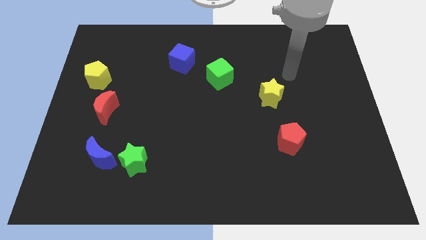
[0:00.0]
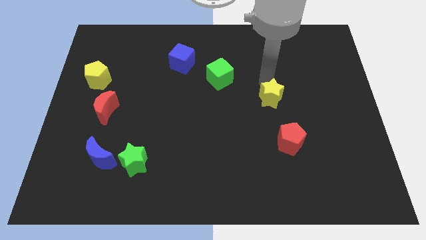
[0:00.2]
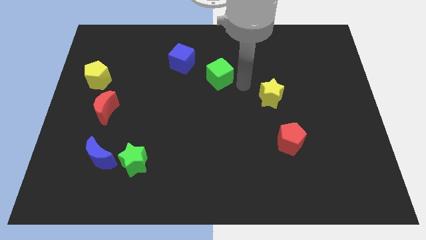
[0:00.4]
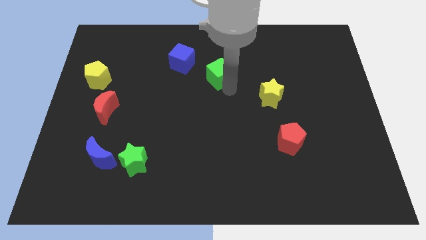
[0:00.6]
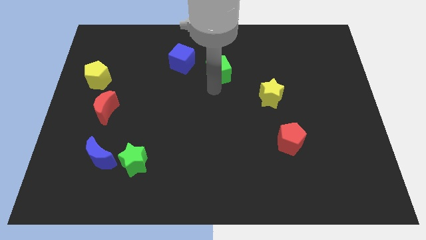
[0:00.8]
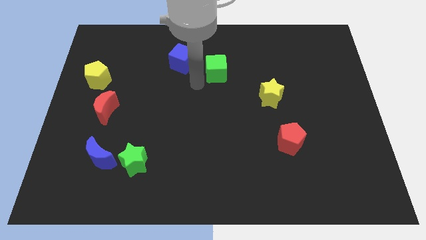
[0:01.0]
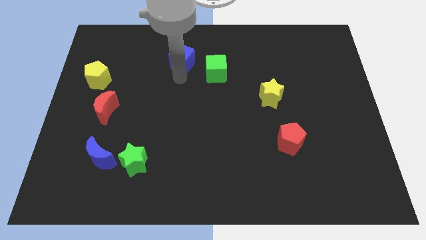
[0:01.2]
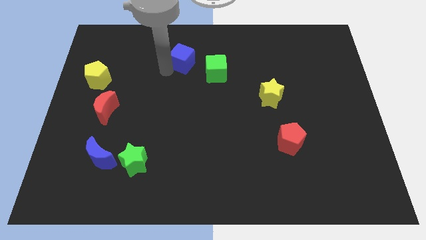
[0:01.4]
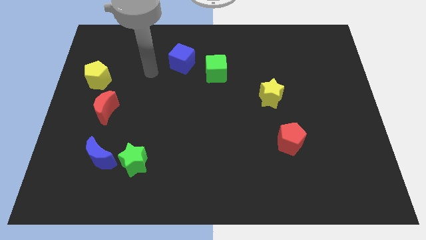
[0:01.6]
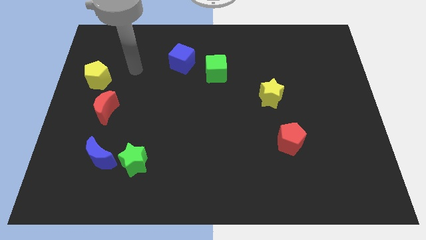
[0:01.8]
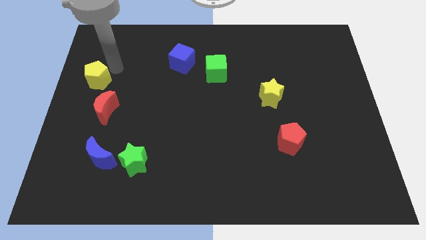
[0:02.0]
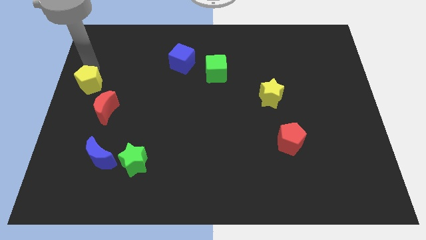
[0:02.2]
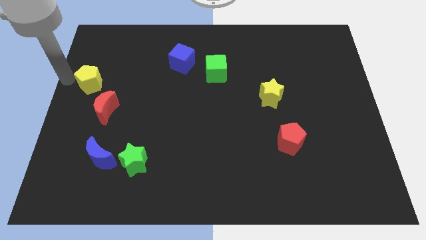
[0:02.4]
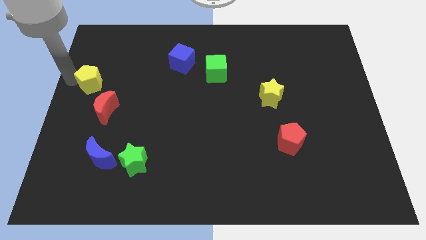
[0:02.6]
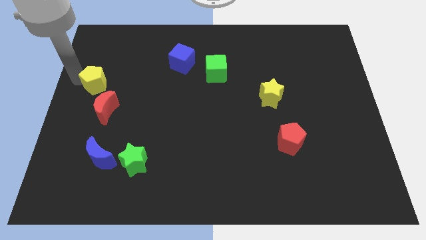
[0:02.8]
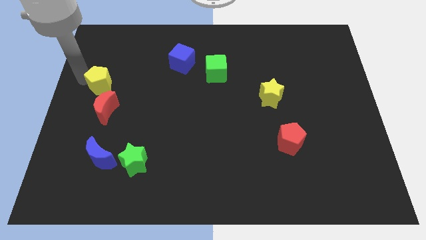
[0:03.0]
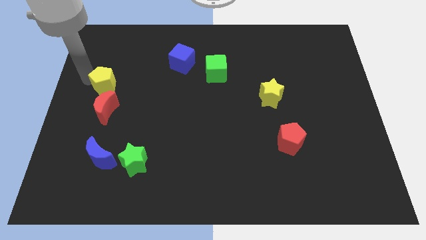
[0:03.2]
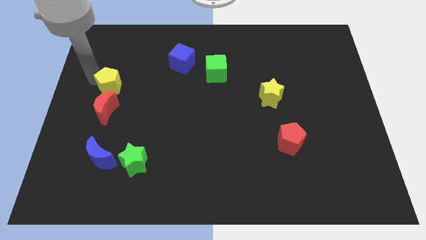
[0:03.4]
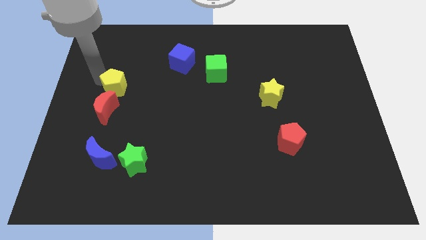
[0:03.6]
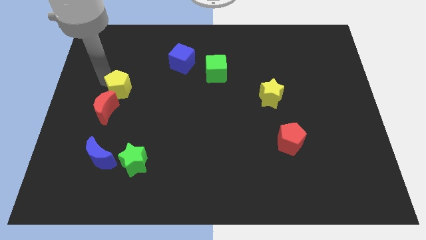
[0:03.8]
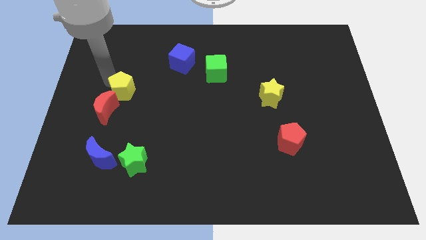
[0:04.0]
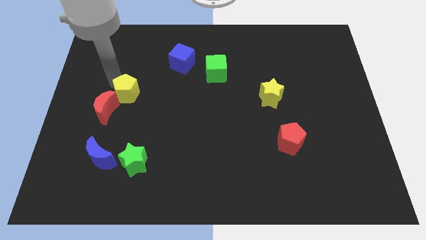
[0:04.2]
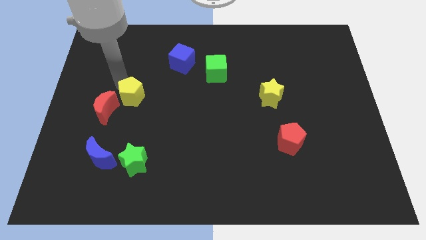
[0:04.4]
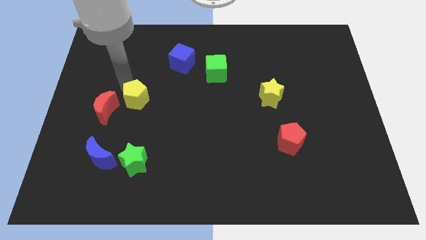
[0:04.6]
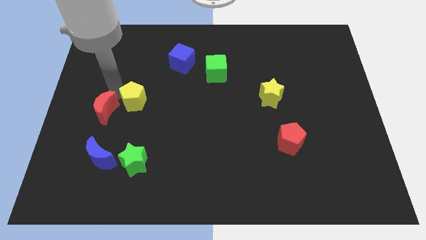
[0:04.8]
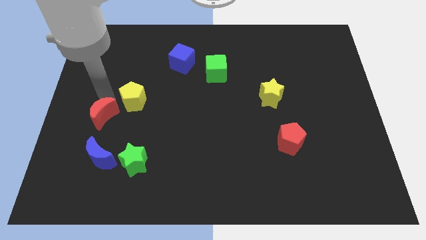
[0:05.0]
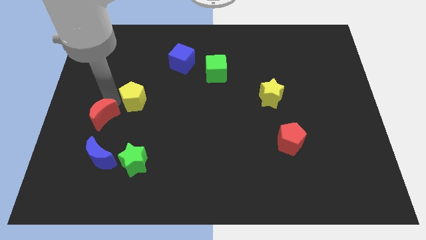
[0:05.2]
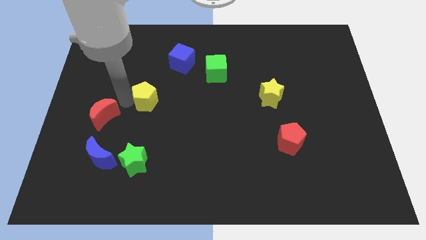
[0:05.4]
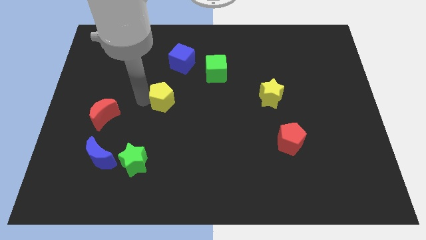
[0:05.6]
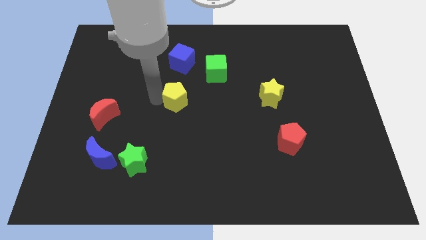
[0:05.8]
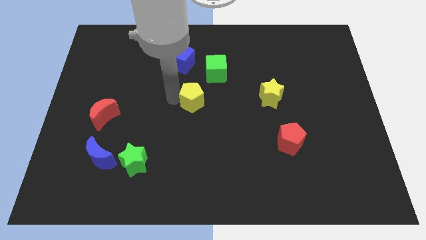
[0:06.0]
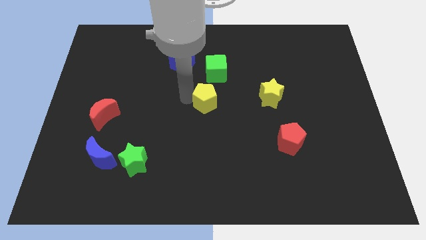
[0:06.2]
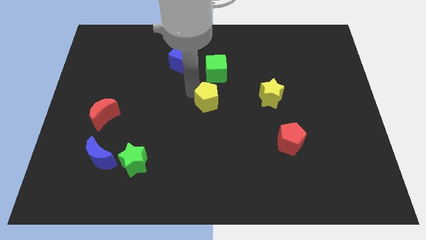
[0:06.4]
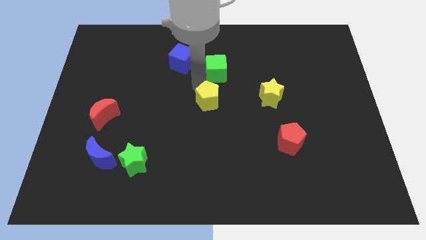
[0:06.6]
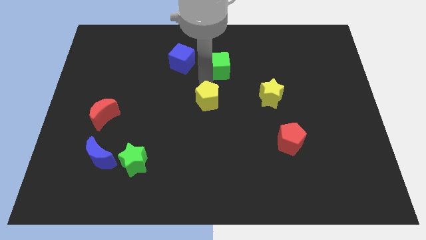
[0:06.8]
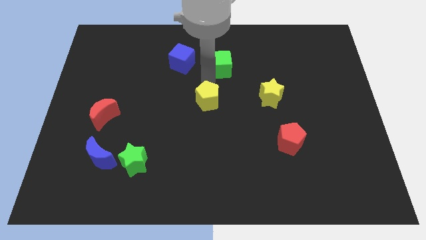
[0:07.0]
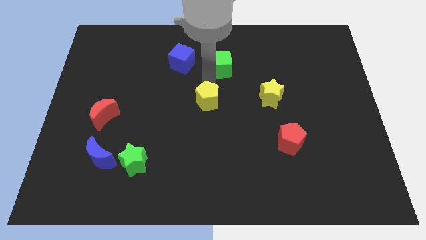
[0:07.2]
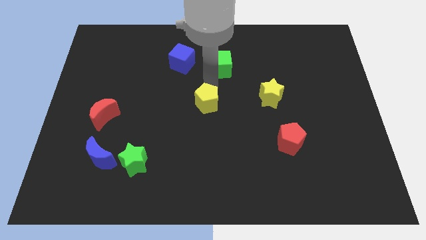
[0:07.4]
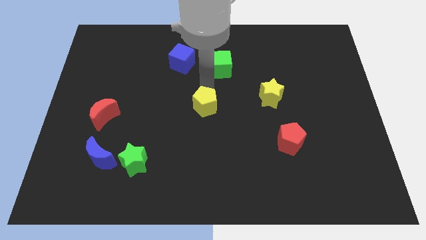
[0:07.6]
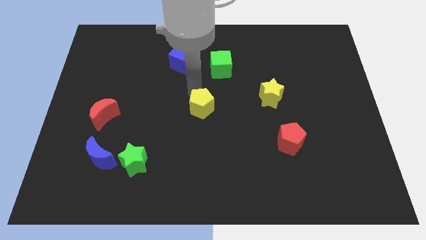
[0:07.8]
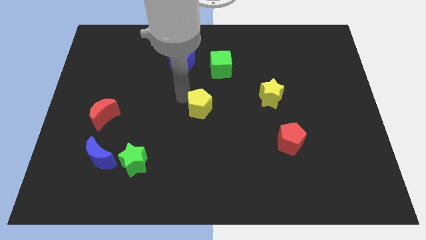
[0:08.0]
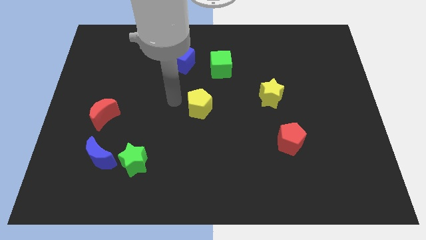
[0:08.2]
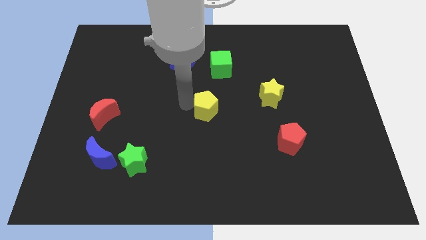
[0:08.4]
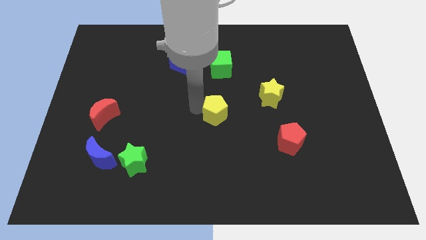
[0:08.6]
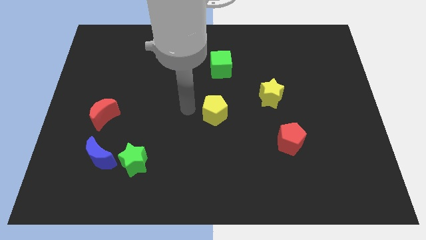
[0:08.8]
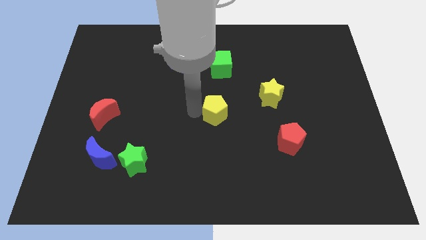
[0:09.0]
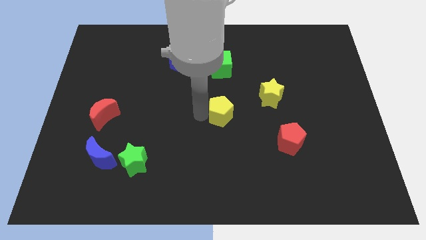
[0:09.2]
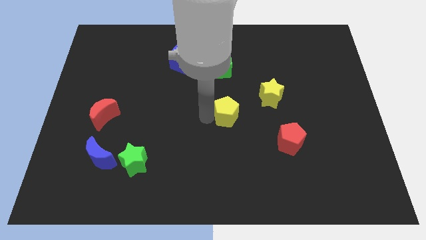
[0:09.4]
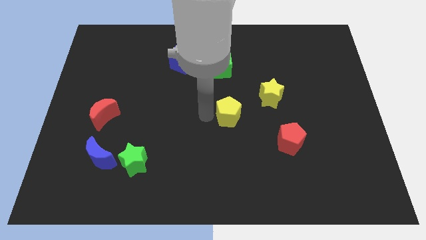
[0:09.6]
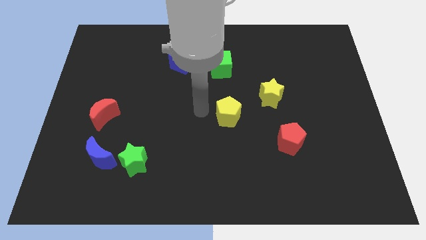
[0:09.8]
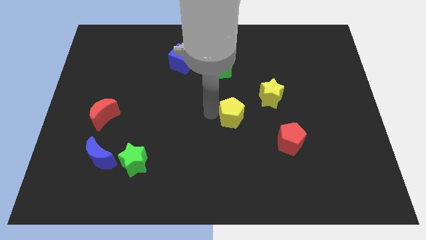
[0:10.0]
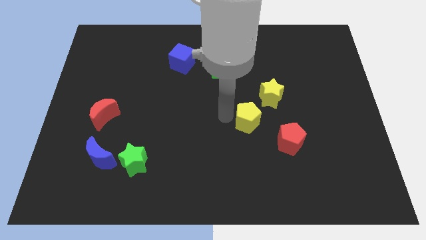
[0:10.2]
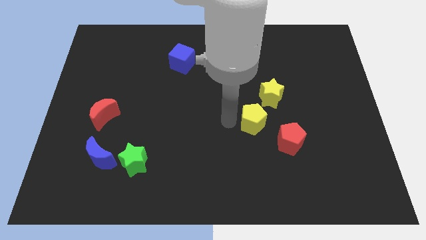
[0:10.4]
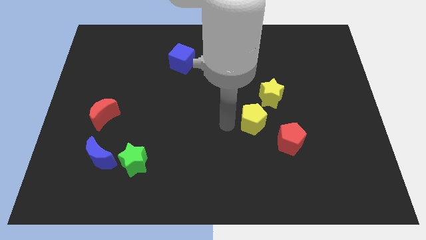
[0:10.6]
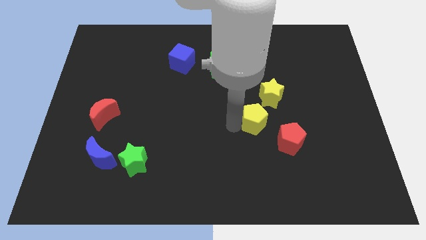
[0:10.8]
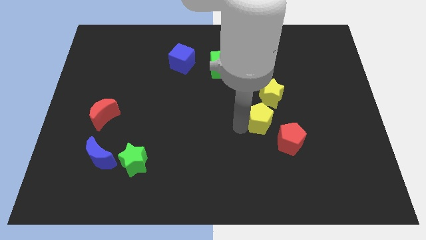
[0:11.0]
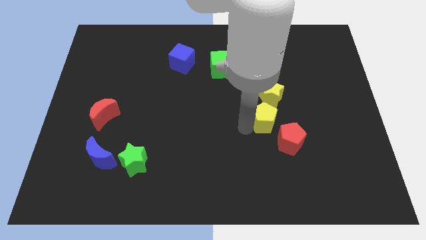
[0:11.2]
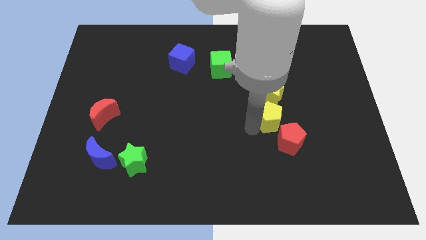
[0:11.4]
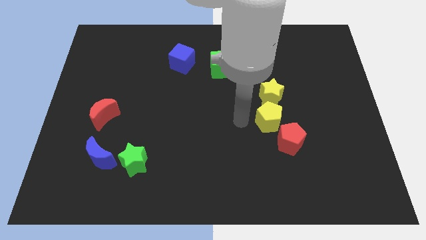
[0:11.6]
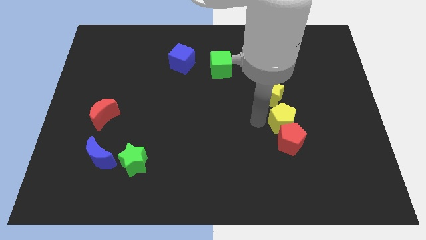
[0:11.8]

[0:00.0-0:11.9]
slide the yellow pentagon to the top right side of the red pentagon

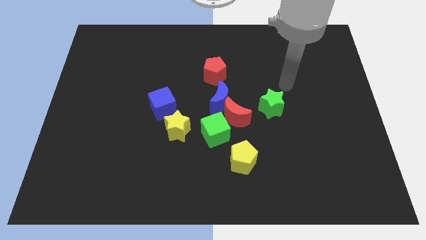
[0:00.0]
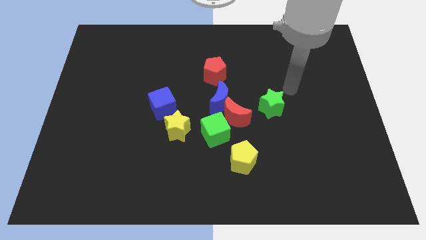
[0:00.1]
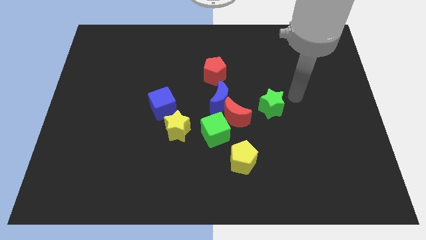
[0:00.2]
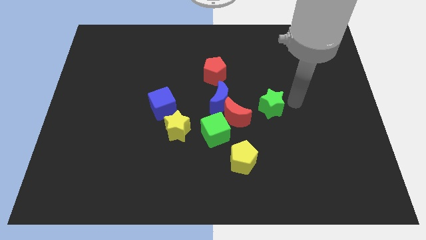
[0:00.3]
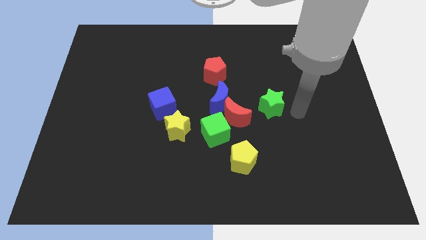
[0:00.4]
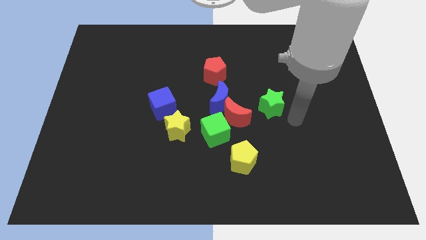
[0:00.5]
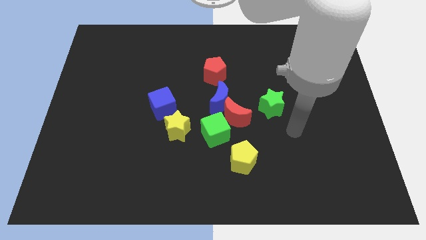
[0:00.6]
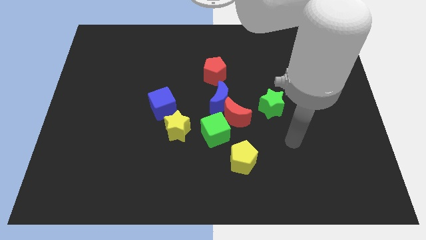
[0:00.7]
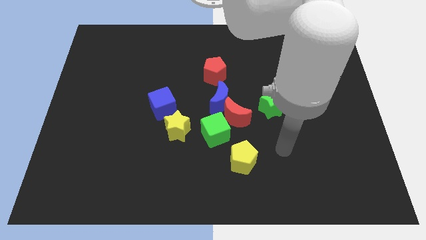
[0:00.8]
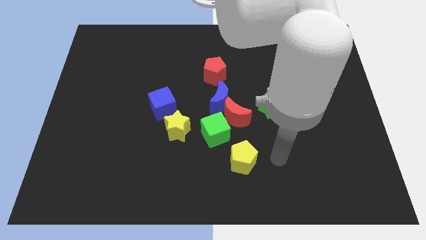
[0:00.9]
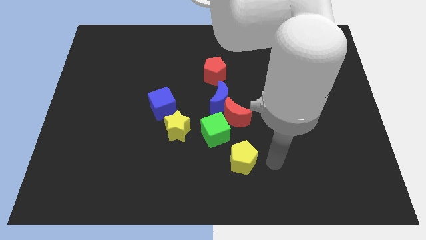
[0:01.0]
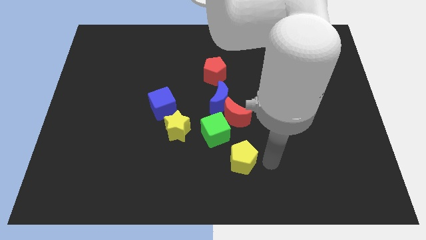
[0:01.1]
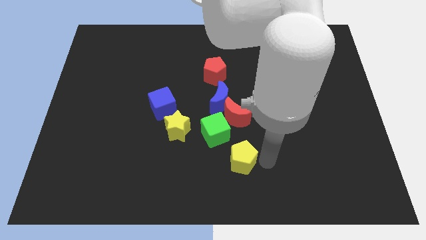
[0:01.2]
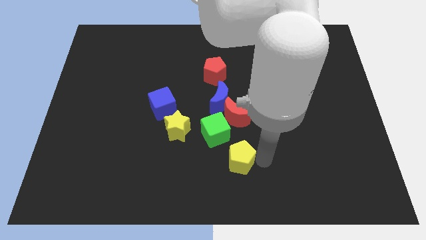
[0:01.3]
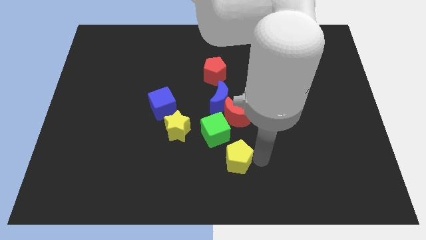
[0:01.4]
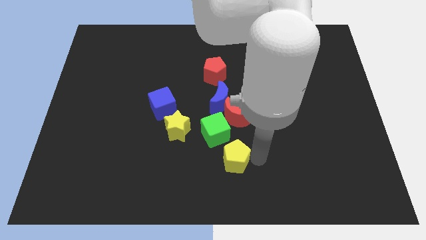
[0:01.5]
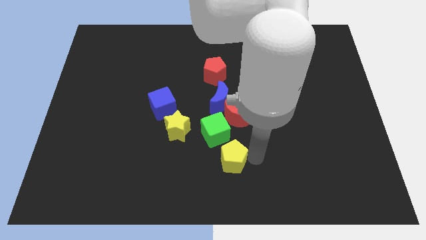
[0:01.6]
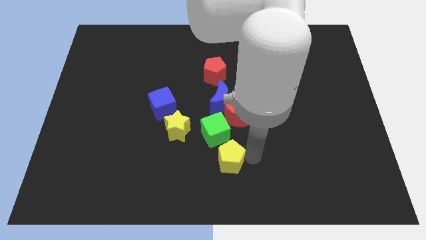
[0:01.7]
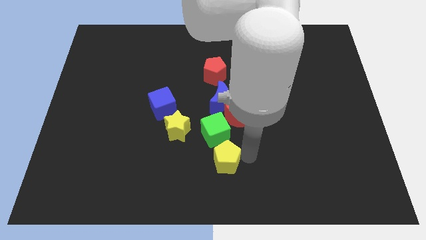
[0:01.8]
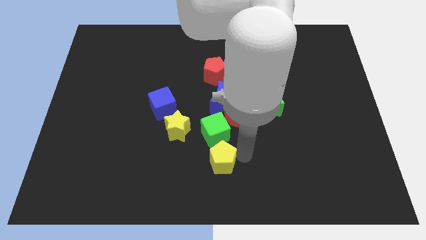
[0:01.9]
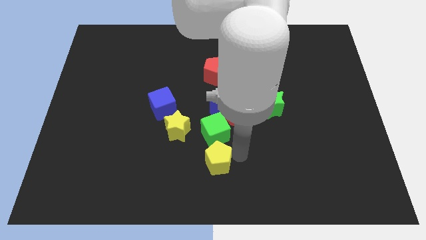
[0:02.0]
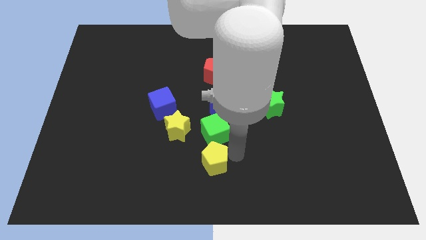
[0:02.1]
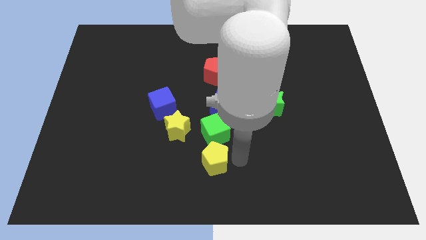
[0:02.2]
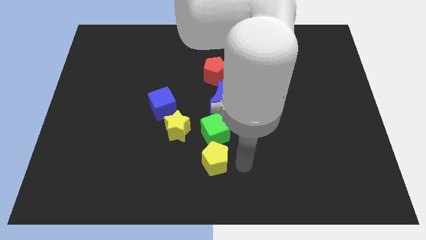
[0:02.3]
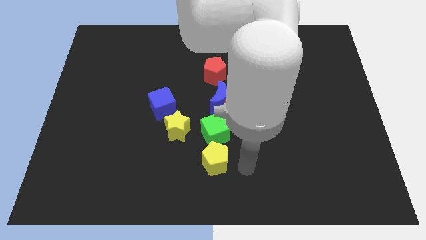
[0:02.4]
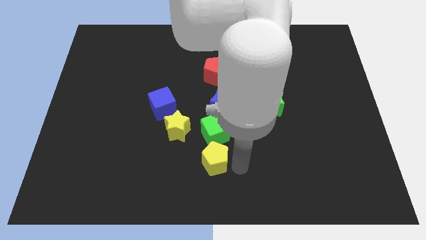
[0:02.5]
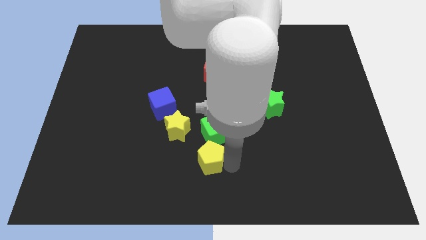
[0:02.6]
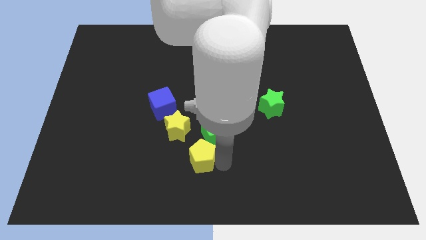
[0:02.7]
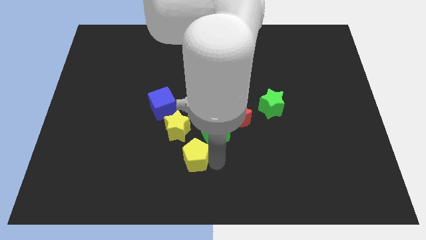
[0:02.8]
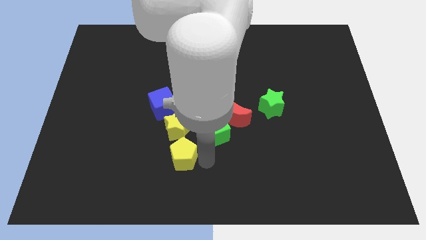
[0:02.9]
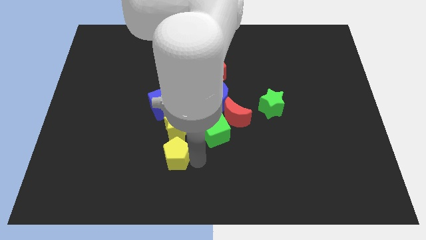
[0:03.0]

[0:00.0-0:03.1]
slide the yellow pentagon below the blue cube
